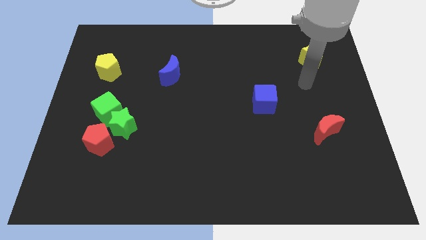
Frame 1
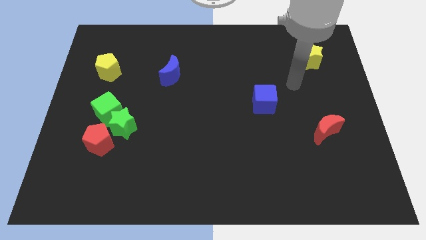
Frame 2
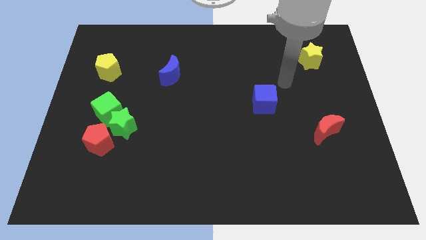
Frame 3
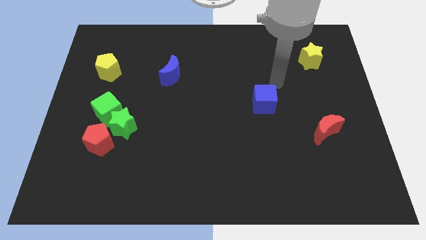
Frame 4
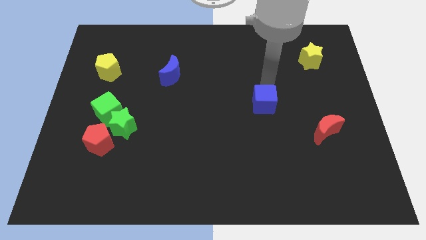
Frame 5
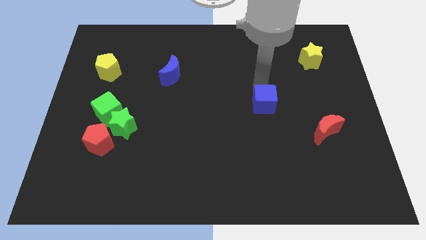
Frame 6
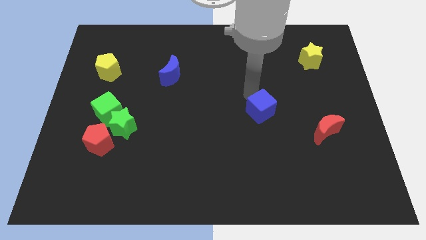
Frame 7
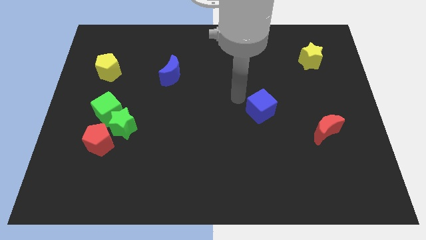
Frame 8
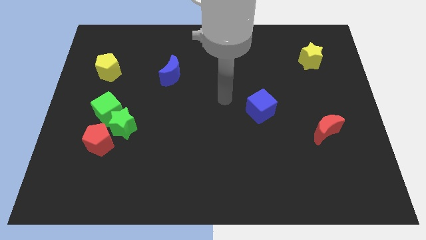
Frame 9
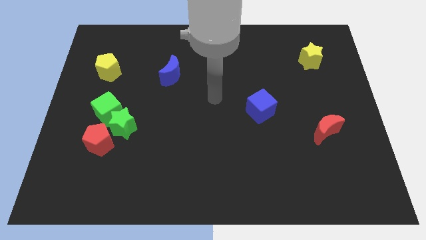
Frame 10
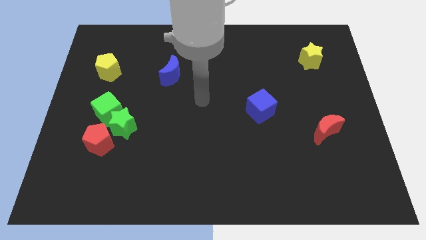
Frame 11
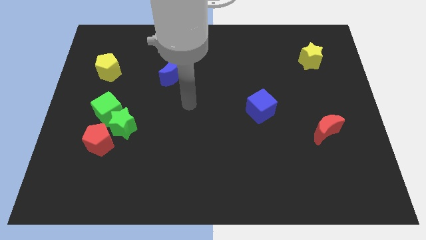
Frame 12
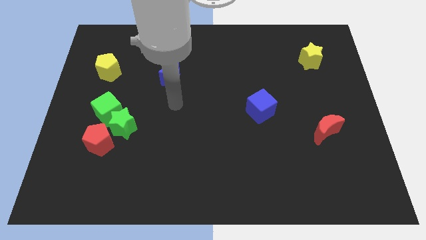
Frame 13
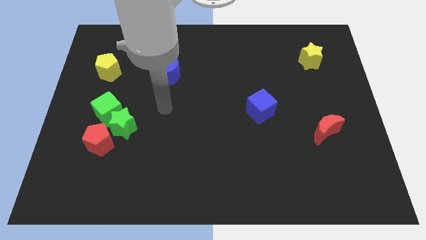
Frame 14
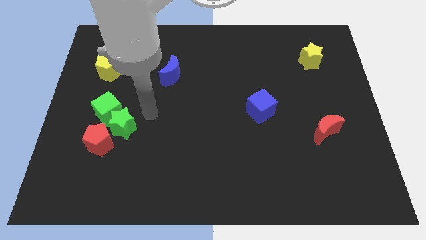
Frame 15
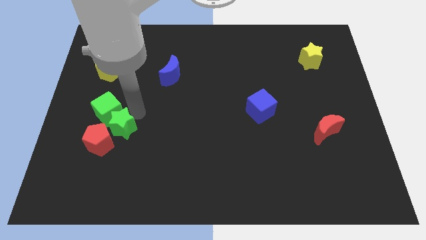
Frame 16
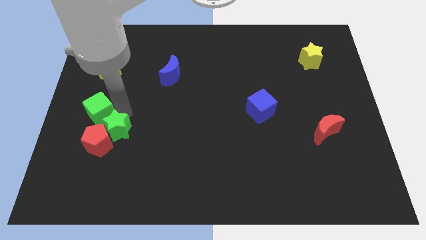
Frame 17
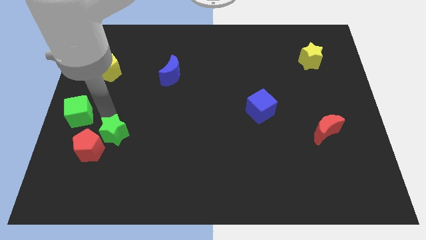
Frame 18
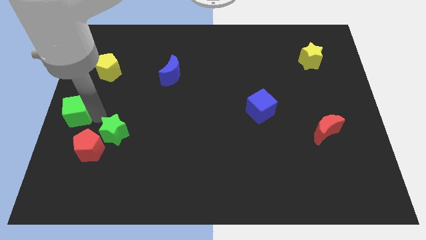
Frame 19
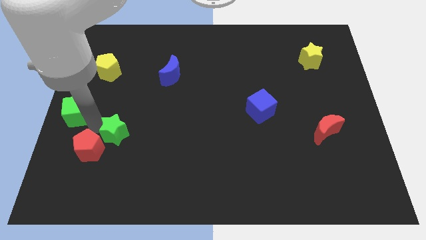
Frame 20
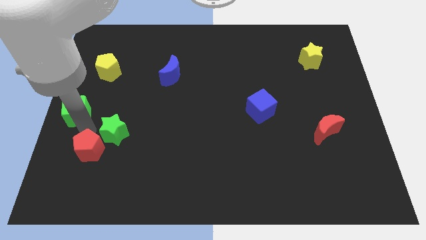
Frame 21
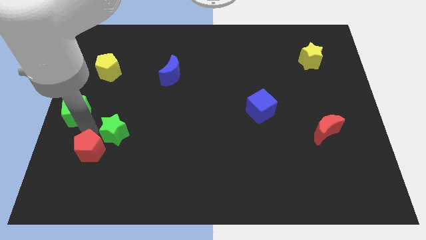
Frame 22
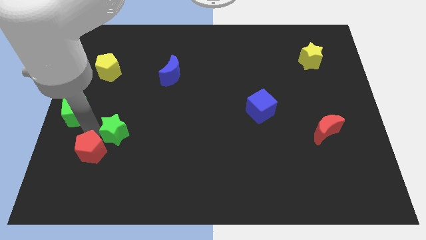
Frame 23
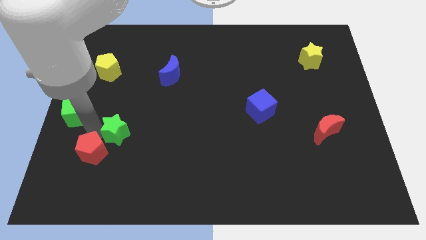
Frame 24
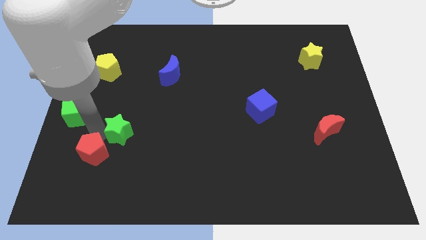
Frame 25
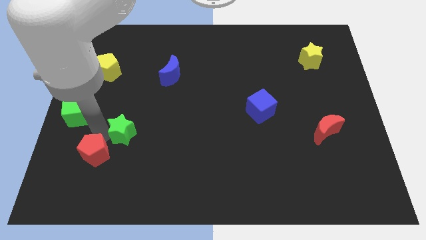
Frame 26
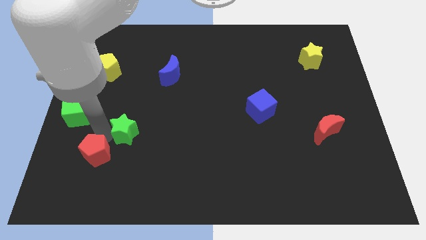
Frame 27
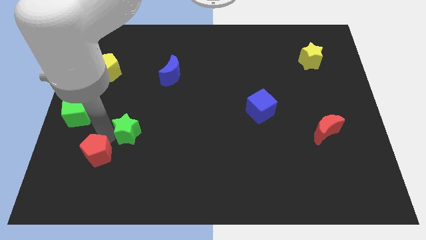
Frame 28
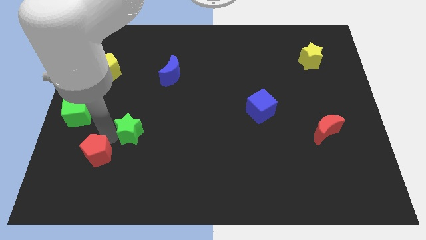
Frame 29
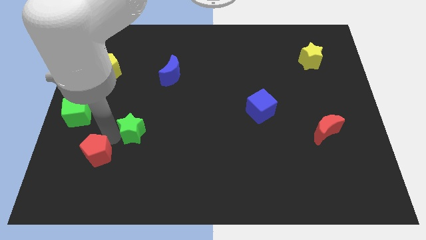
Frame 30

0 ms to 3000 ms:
separate the green star from the green cube and red pentagon

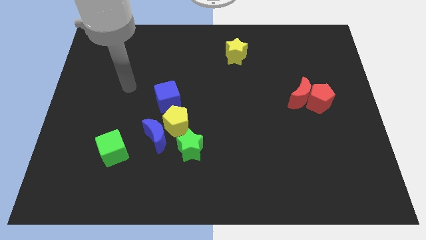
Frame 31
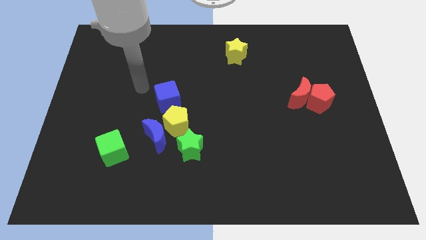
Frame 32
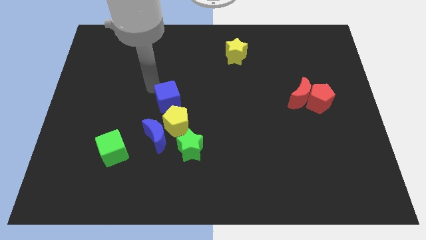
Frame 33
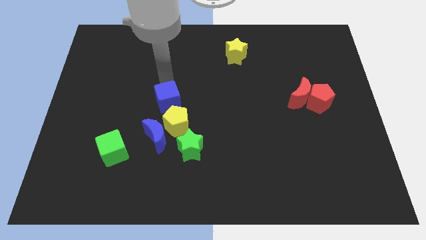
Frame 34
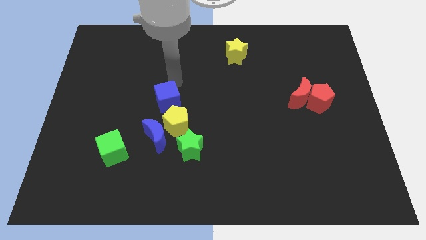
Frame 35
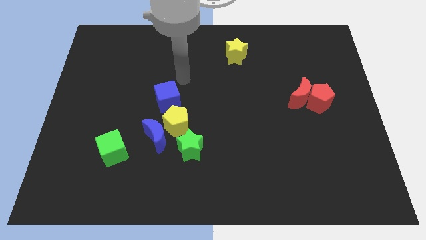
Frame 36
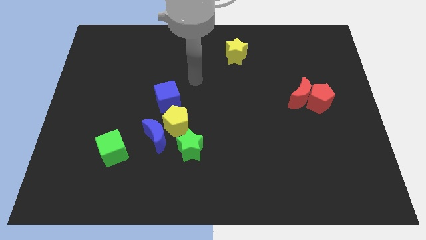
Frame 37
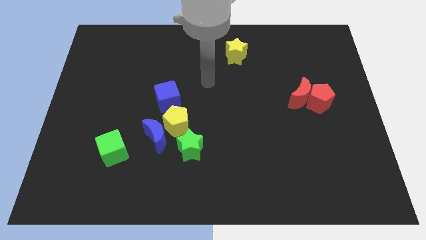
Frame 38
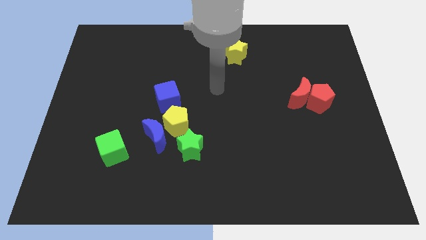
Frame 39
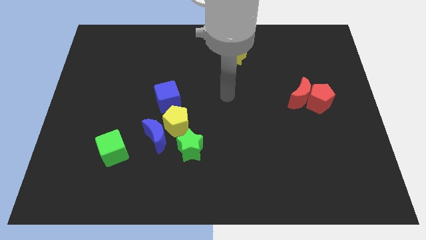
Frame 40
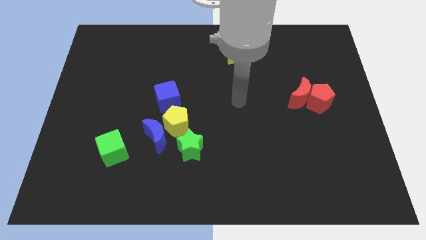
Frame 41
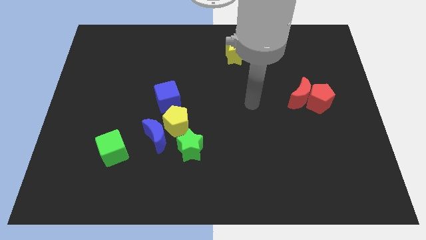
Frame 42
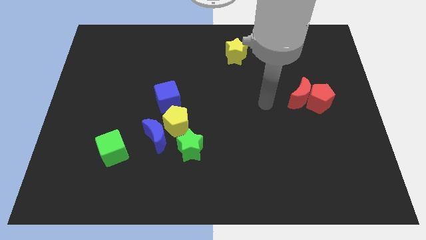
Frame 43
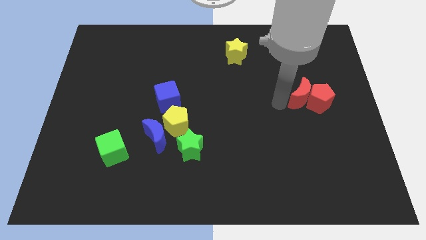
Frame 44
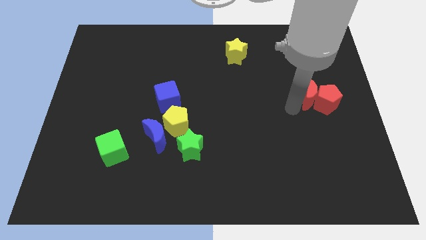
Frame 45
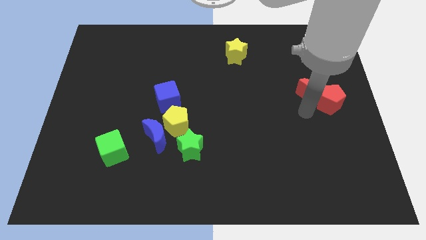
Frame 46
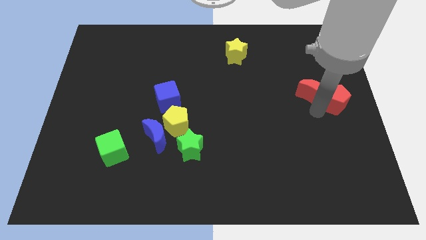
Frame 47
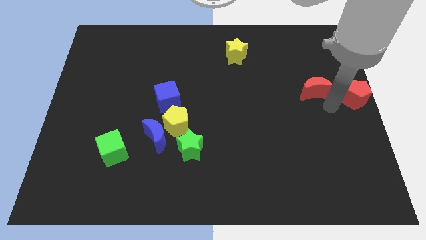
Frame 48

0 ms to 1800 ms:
pull the red moon apart from the red pentagon

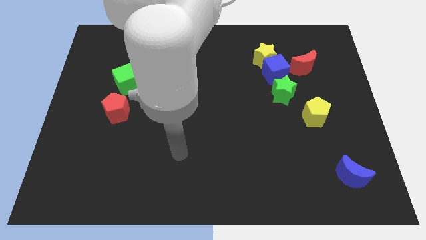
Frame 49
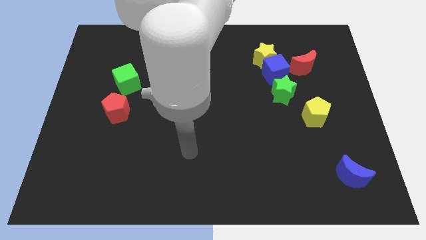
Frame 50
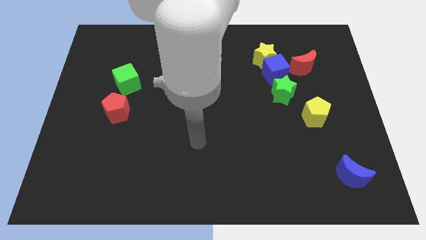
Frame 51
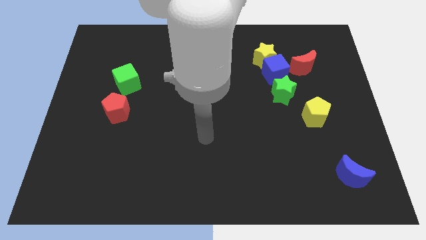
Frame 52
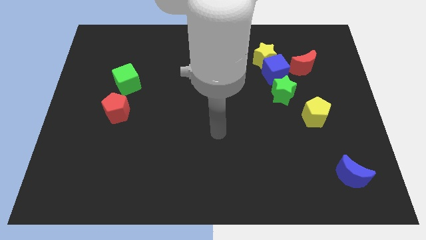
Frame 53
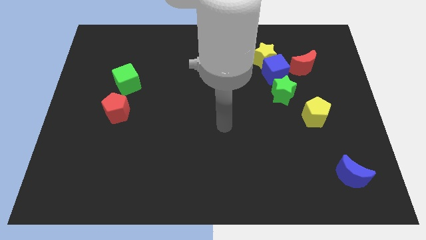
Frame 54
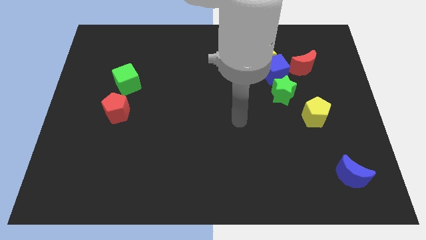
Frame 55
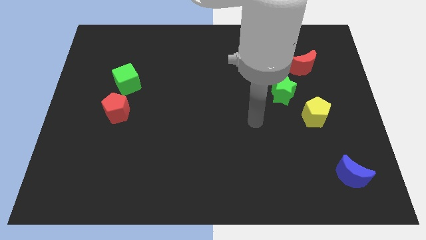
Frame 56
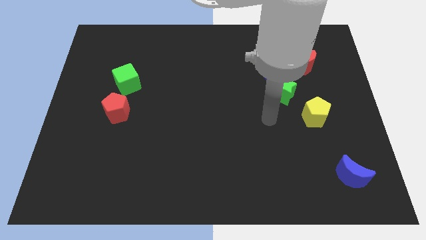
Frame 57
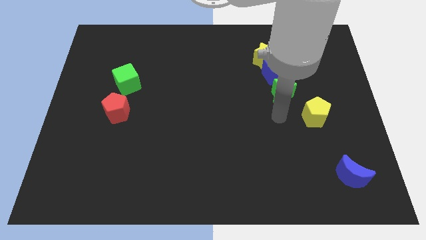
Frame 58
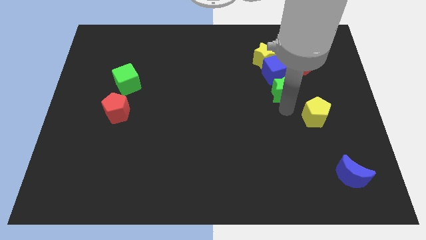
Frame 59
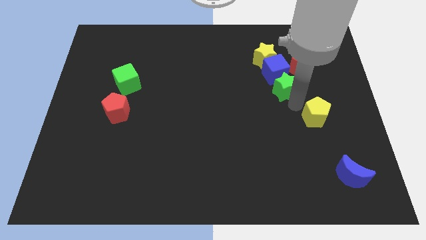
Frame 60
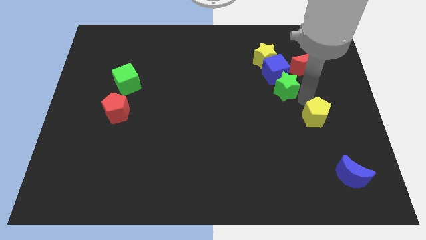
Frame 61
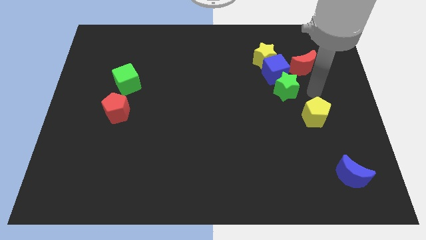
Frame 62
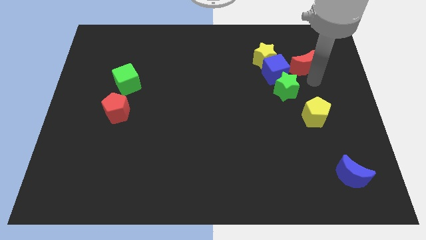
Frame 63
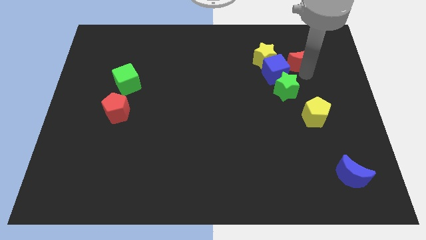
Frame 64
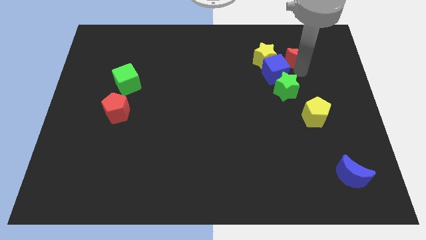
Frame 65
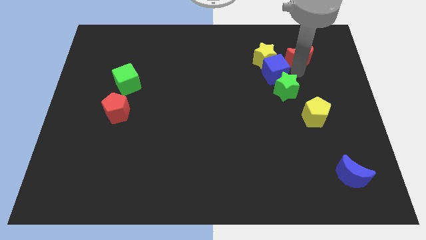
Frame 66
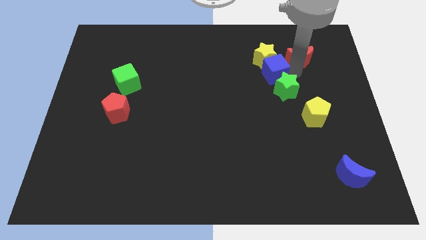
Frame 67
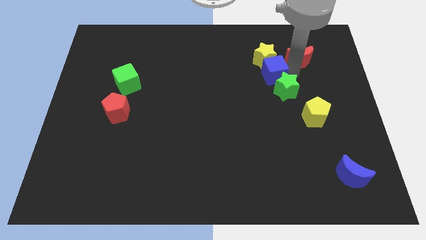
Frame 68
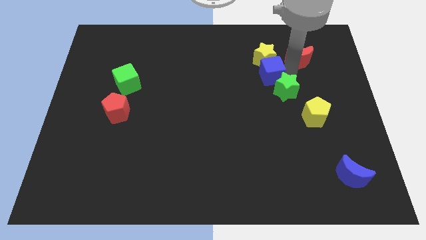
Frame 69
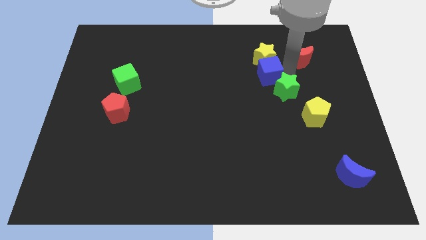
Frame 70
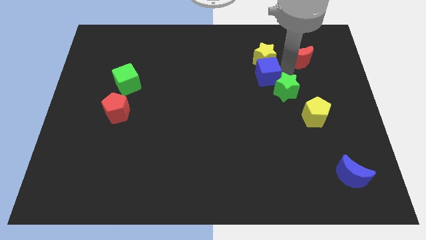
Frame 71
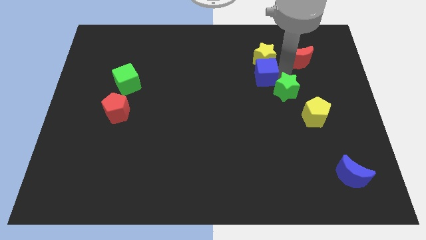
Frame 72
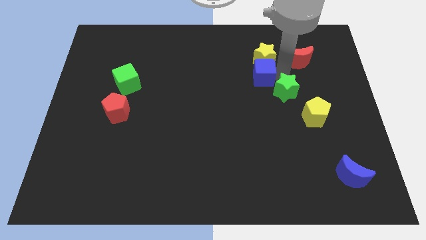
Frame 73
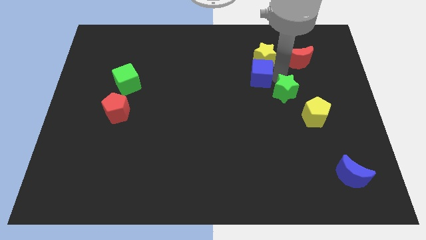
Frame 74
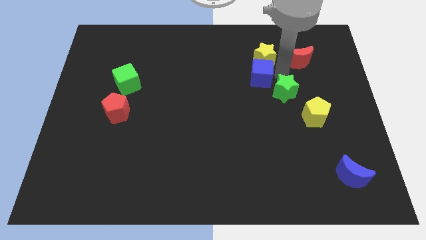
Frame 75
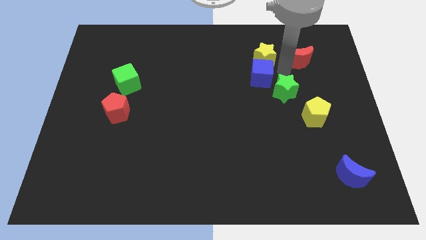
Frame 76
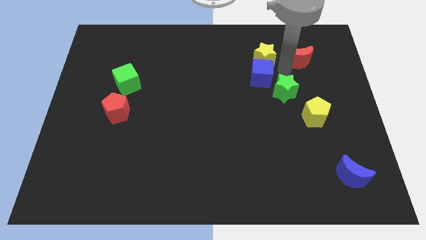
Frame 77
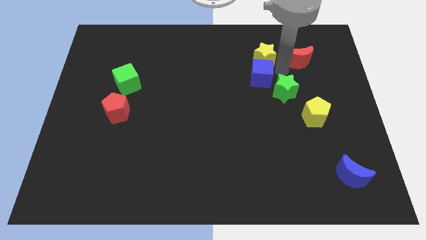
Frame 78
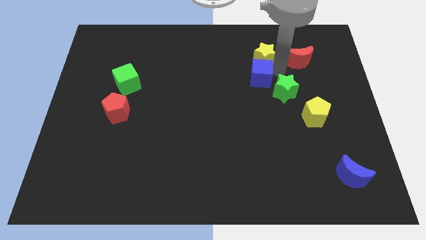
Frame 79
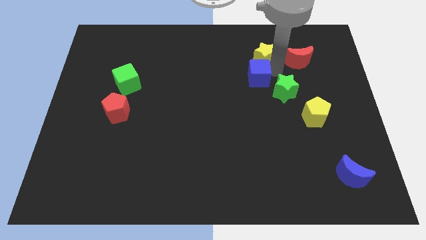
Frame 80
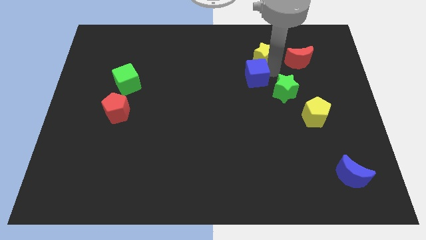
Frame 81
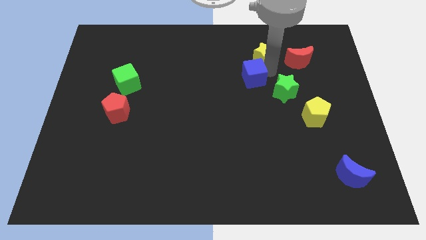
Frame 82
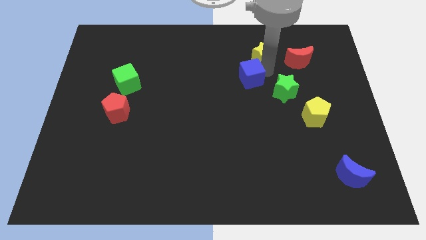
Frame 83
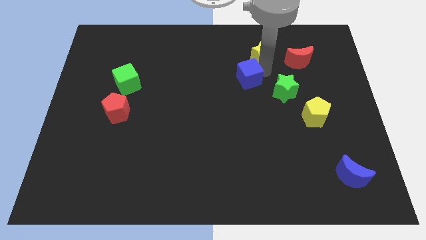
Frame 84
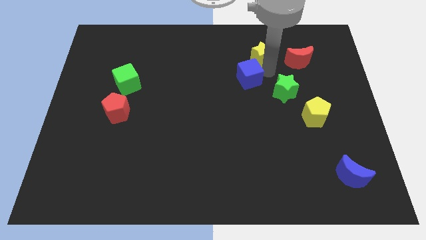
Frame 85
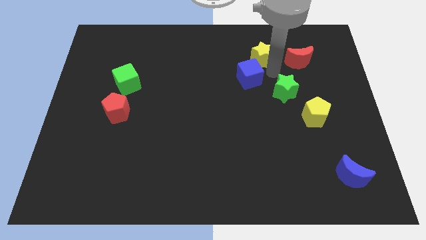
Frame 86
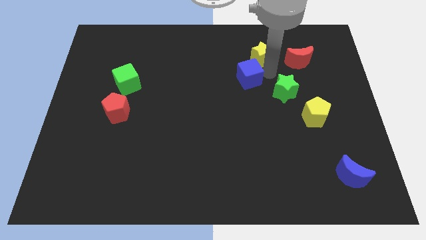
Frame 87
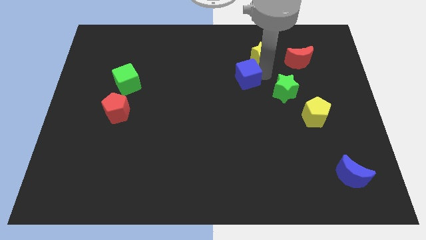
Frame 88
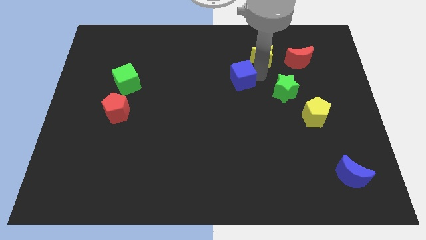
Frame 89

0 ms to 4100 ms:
move the blue cube away from the yellow star, green star, and red moon

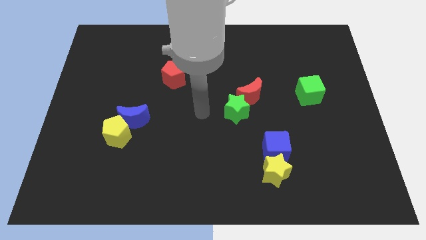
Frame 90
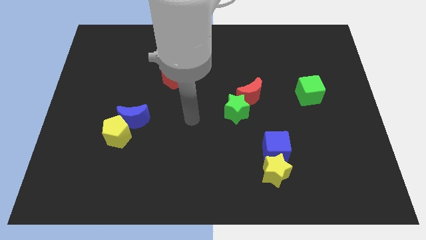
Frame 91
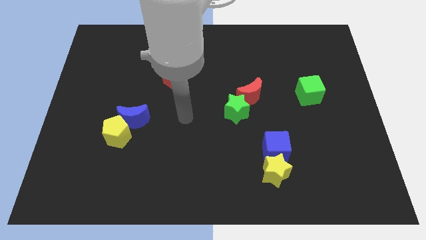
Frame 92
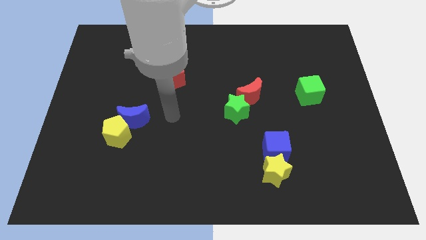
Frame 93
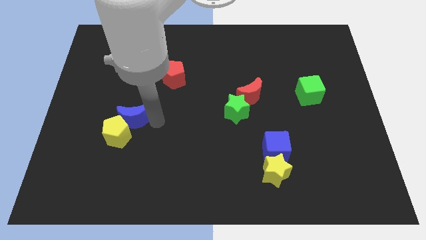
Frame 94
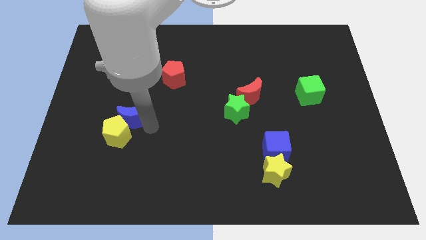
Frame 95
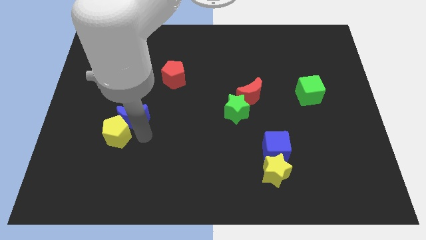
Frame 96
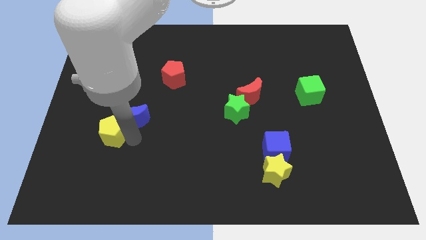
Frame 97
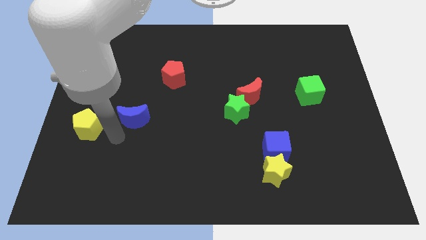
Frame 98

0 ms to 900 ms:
pull the blue moon apart from the yellow pentagon
